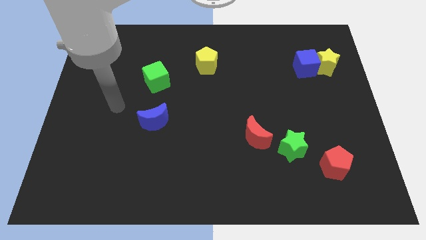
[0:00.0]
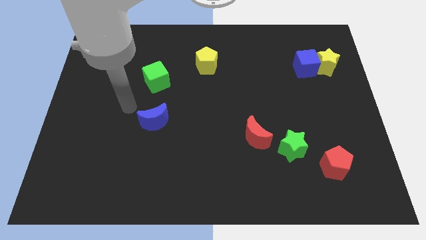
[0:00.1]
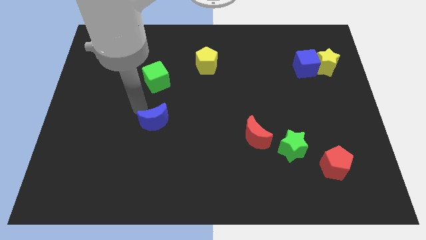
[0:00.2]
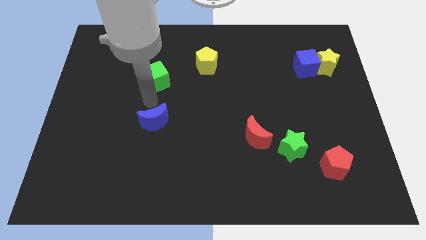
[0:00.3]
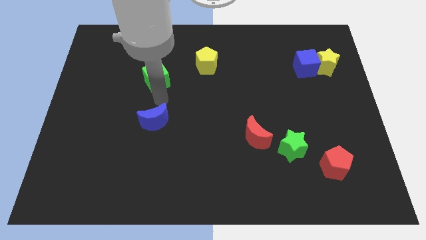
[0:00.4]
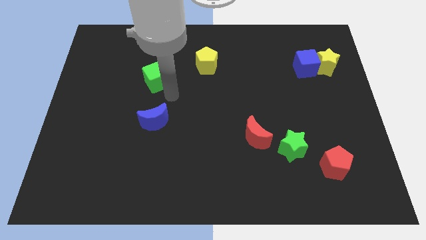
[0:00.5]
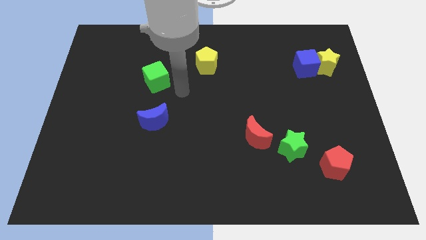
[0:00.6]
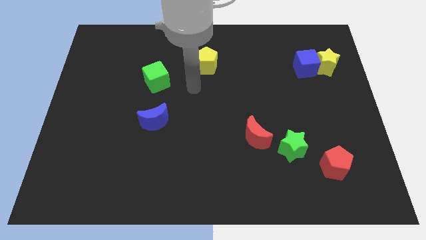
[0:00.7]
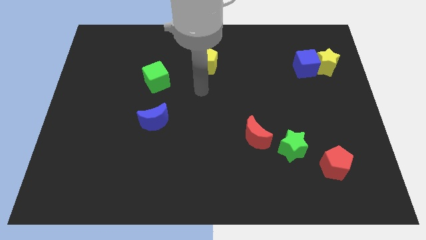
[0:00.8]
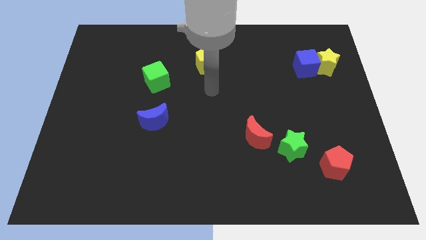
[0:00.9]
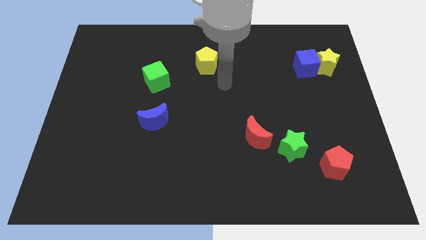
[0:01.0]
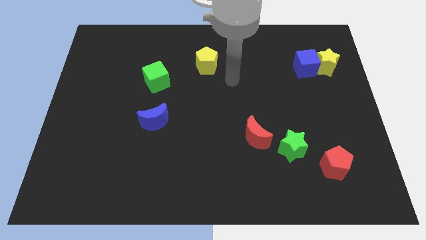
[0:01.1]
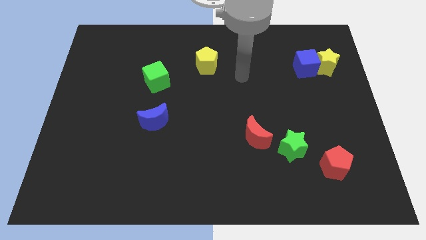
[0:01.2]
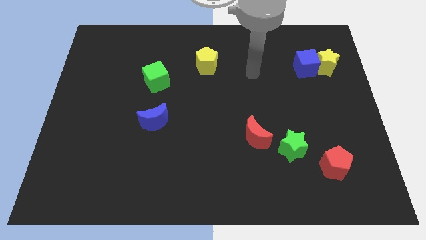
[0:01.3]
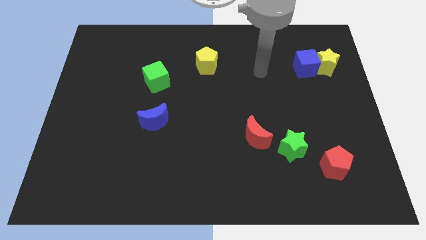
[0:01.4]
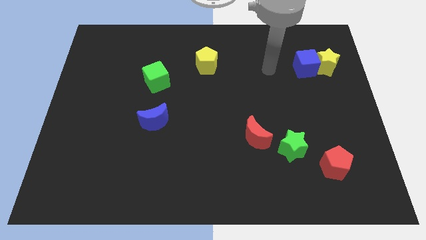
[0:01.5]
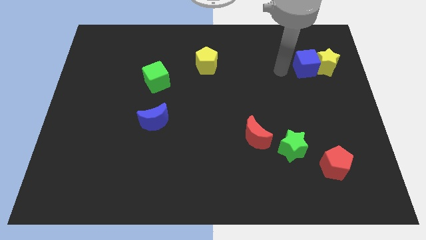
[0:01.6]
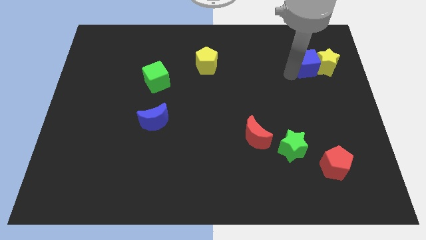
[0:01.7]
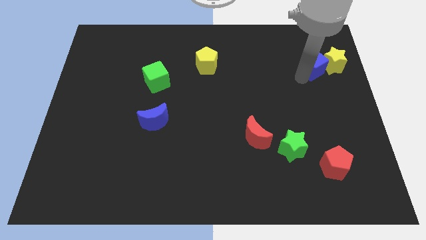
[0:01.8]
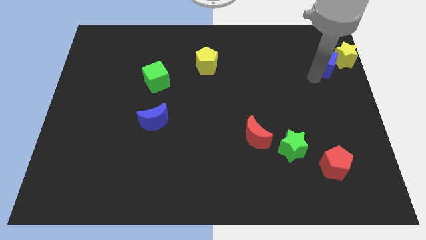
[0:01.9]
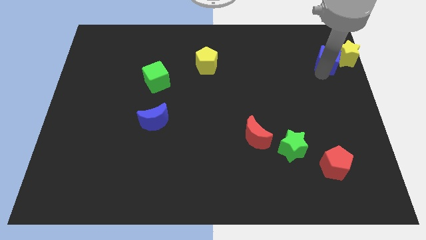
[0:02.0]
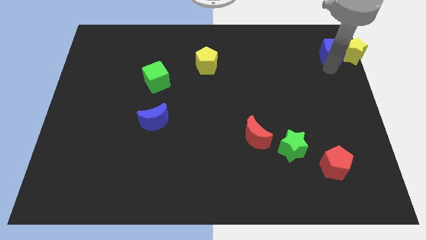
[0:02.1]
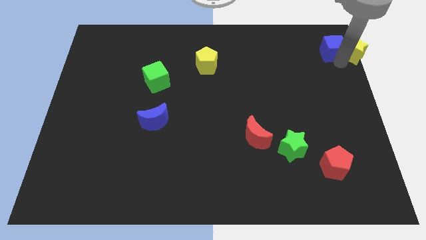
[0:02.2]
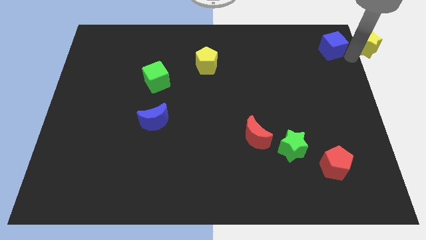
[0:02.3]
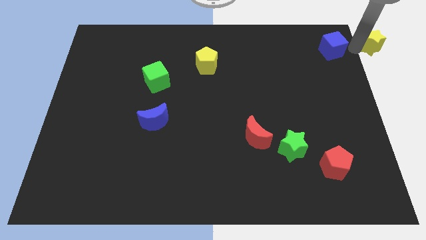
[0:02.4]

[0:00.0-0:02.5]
move the blue cube away from the yellow star

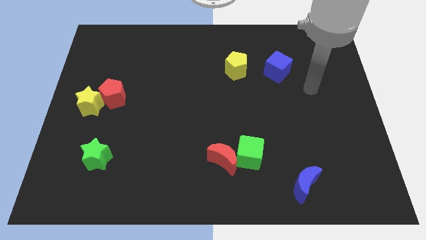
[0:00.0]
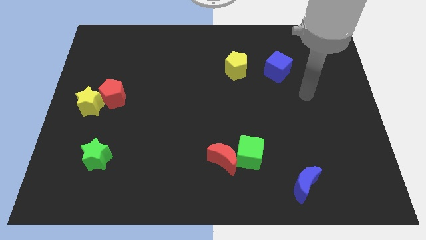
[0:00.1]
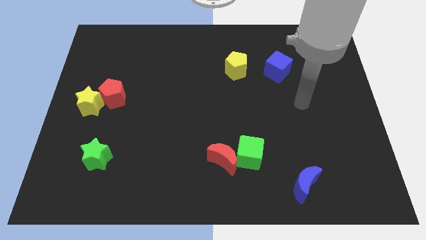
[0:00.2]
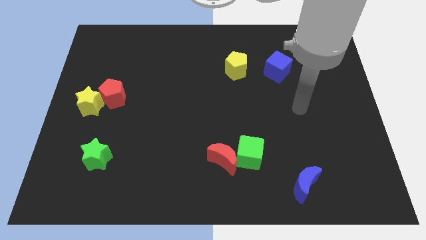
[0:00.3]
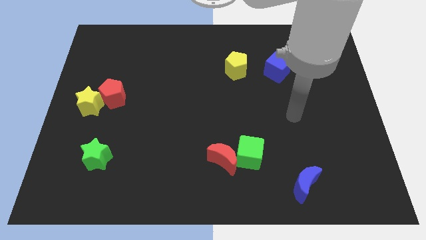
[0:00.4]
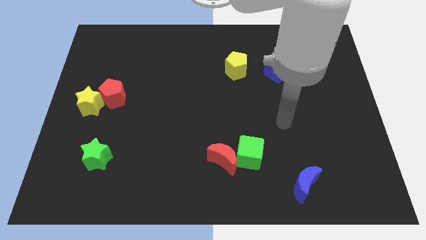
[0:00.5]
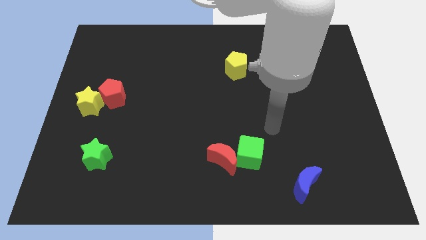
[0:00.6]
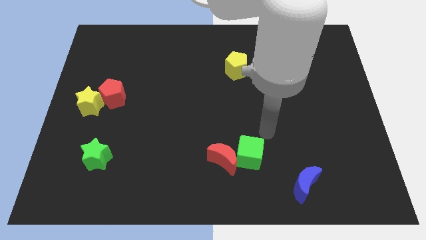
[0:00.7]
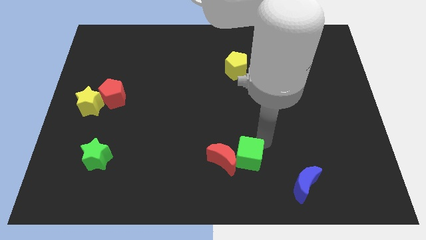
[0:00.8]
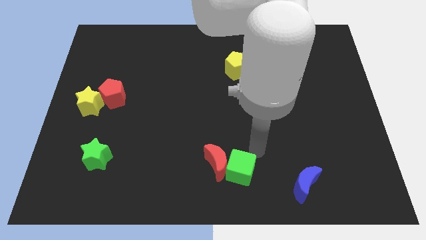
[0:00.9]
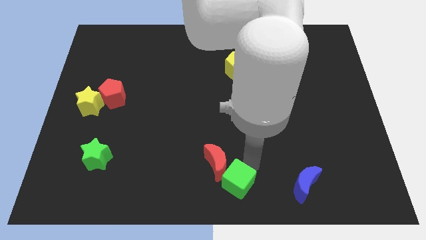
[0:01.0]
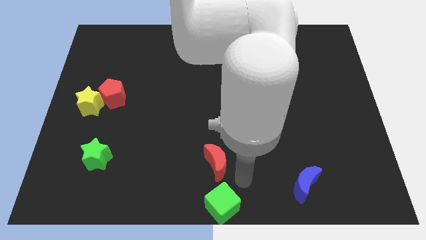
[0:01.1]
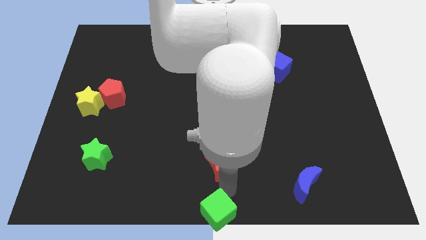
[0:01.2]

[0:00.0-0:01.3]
separate the red moon from the green cube

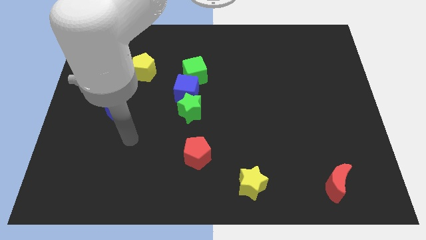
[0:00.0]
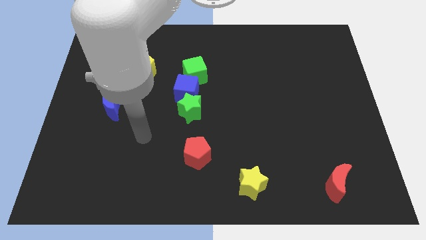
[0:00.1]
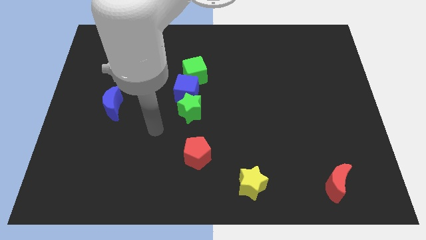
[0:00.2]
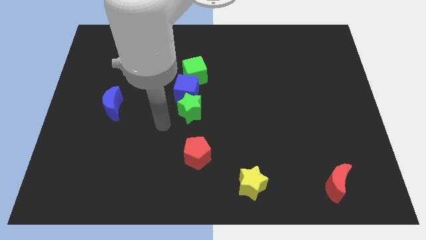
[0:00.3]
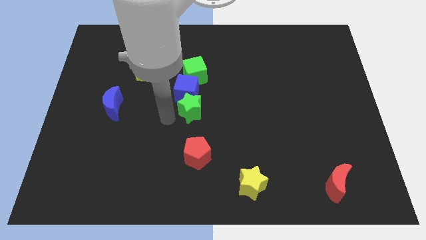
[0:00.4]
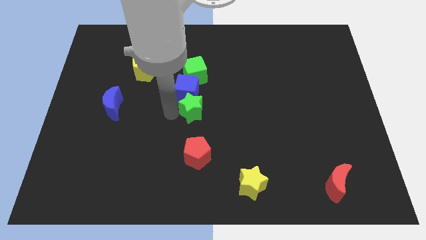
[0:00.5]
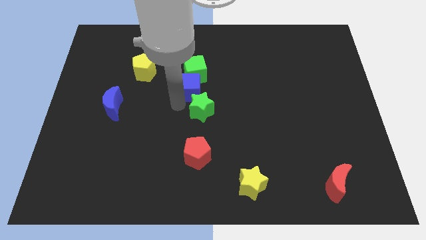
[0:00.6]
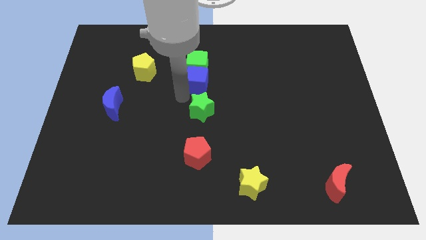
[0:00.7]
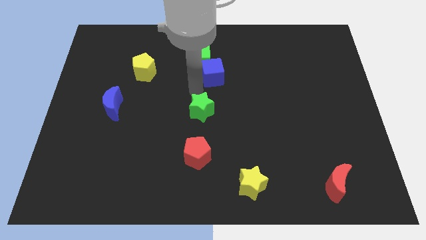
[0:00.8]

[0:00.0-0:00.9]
pull the green star apart from the blue cube

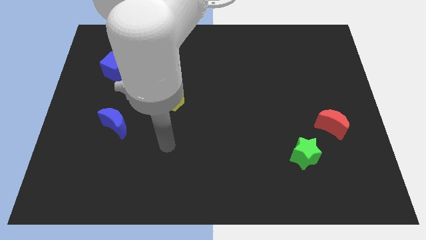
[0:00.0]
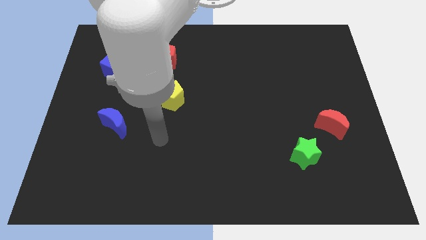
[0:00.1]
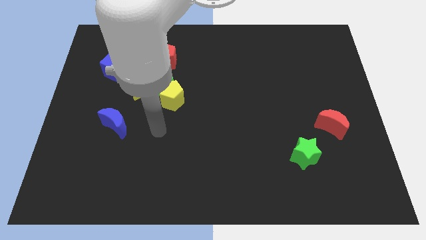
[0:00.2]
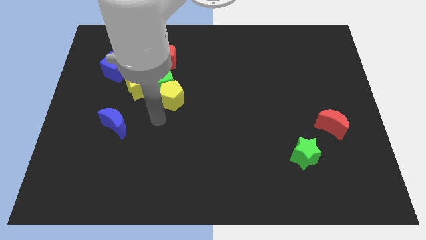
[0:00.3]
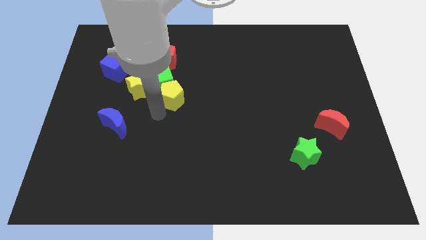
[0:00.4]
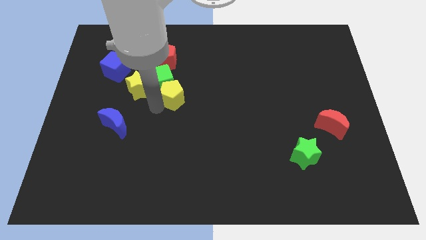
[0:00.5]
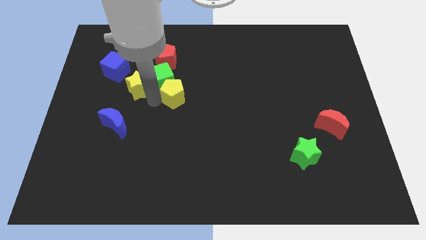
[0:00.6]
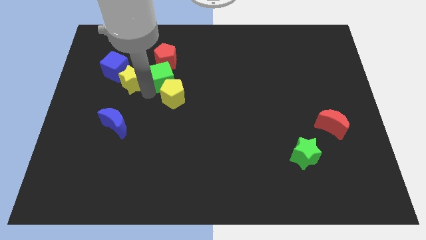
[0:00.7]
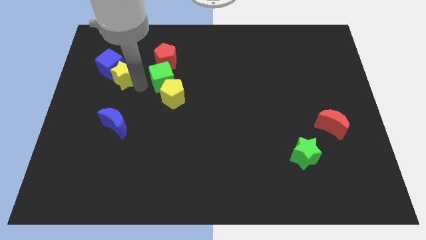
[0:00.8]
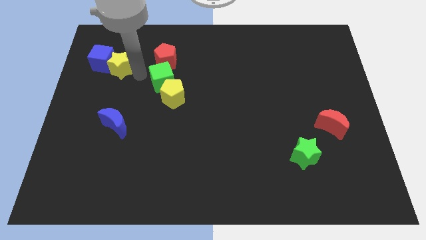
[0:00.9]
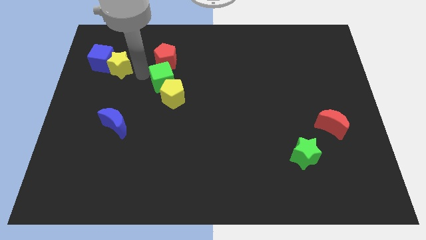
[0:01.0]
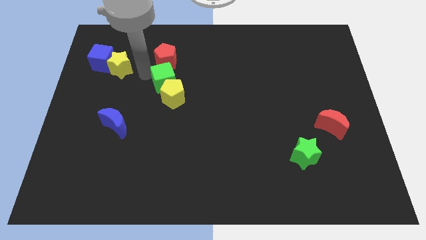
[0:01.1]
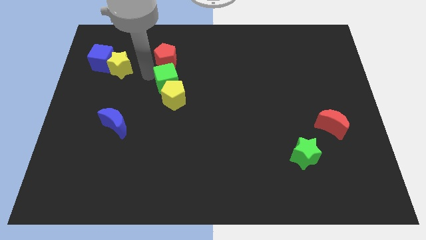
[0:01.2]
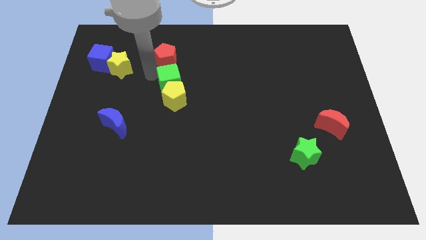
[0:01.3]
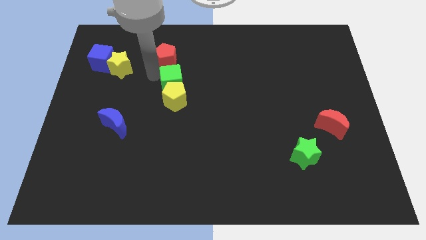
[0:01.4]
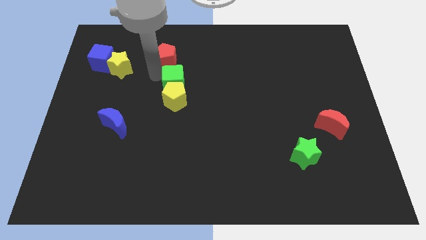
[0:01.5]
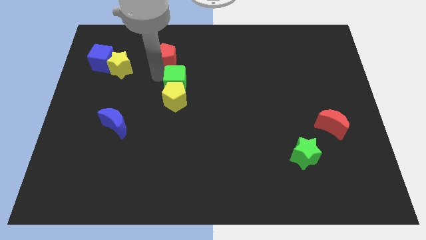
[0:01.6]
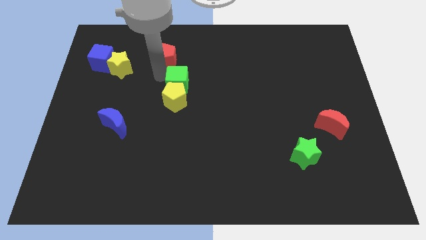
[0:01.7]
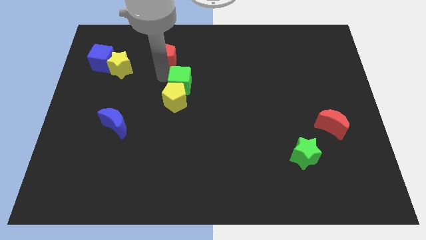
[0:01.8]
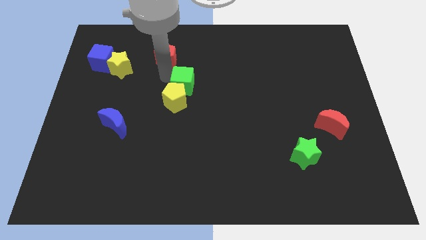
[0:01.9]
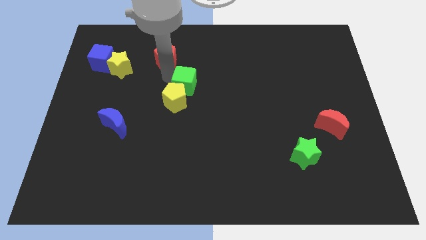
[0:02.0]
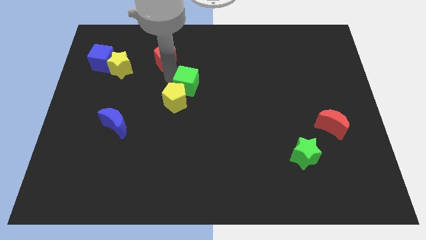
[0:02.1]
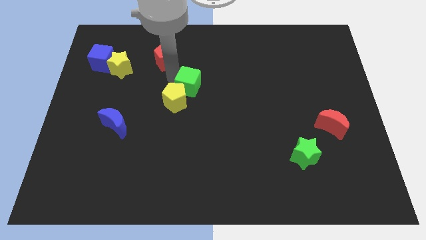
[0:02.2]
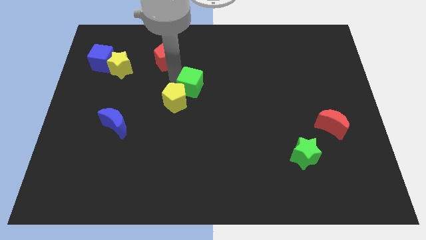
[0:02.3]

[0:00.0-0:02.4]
pull the green cube apart from the yellow pentagon, yellow star, and red pentagon

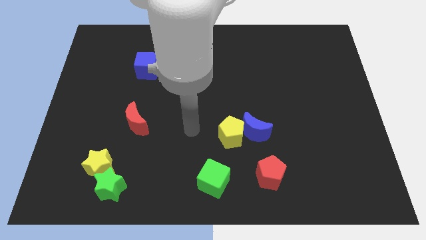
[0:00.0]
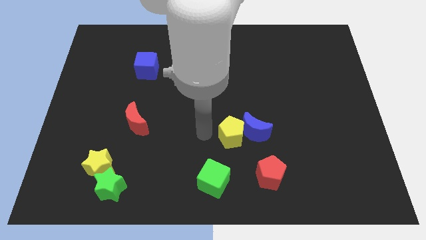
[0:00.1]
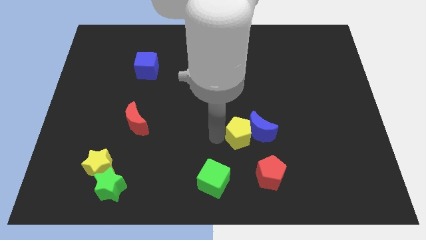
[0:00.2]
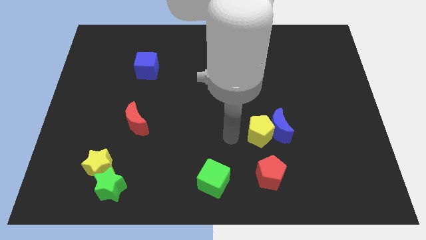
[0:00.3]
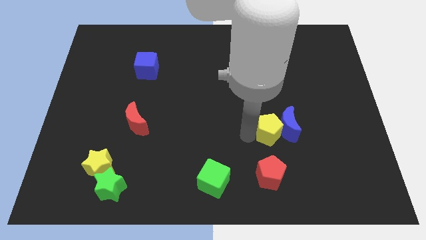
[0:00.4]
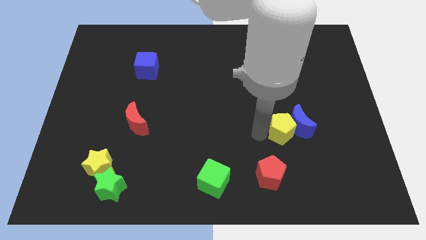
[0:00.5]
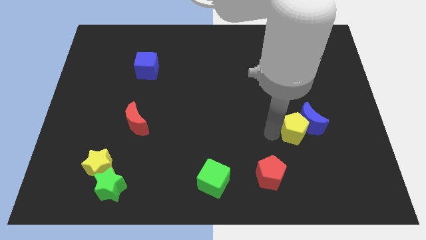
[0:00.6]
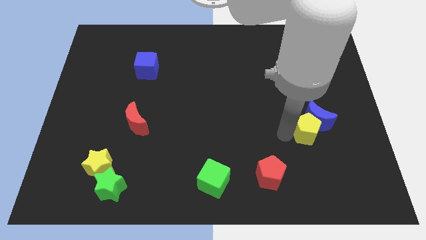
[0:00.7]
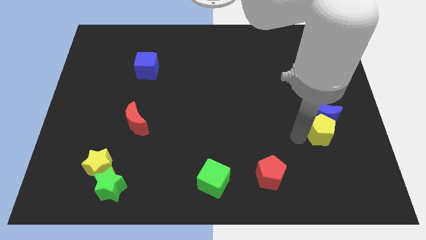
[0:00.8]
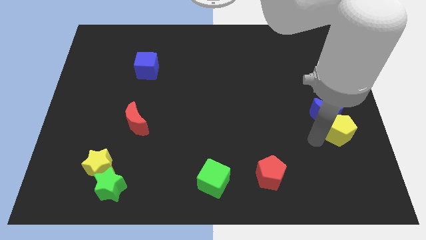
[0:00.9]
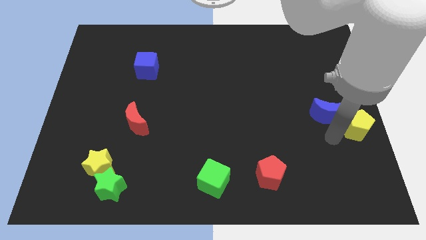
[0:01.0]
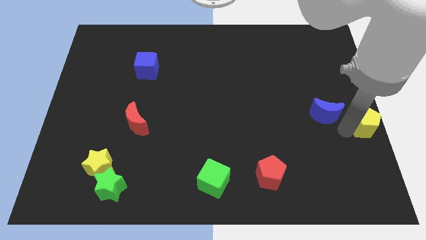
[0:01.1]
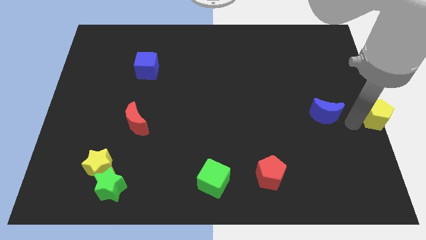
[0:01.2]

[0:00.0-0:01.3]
move the blue moon away from the yellow pentagon

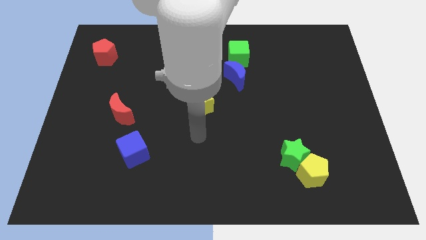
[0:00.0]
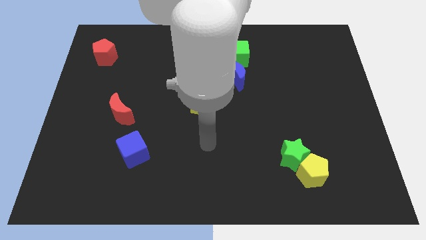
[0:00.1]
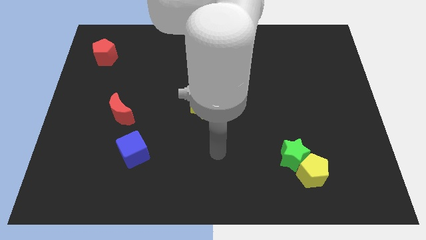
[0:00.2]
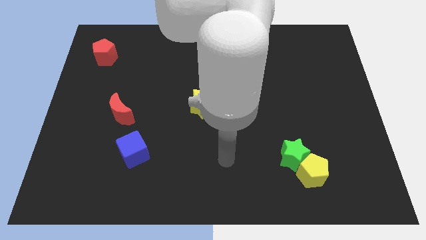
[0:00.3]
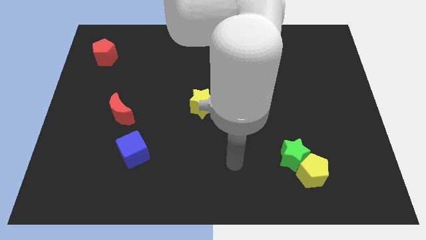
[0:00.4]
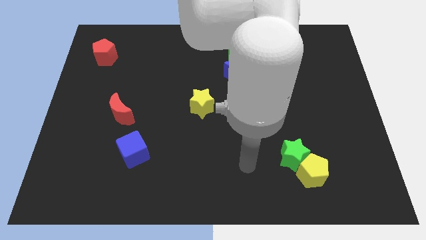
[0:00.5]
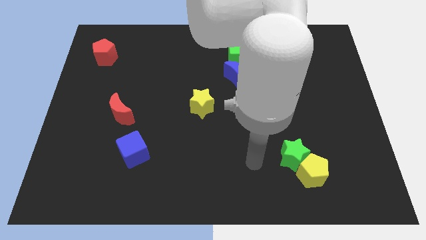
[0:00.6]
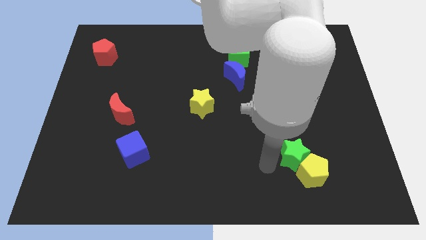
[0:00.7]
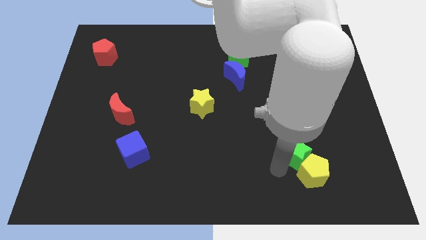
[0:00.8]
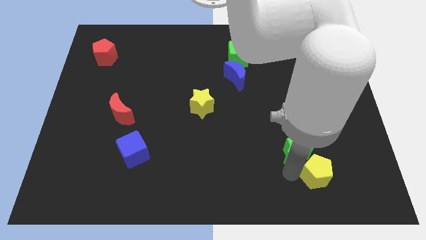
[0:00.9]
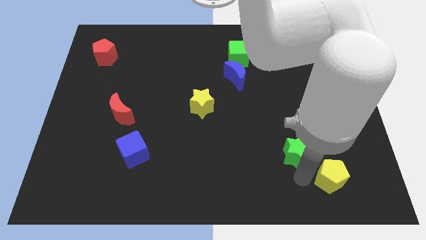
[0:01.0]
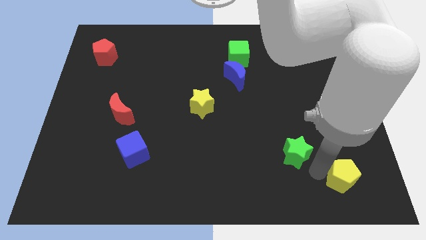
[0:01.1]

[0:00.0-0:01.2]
move the green star away from the yellow pentagon
